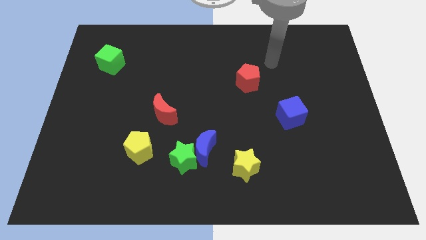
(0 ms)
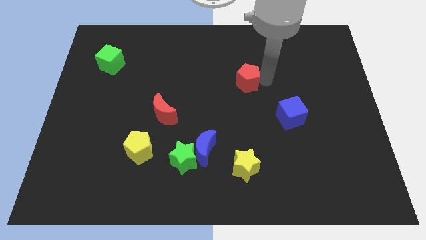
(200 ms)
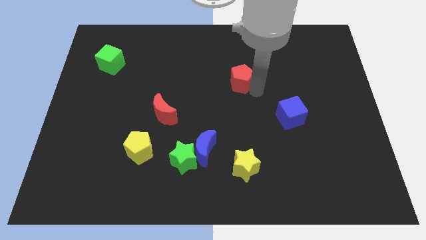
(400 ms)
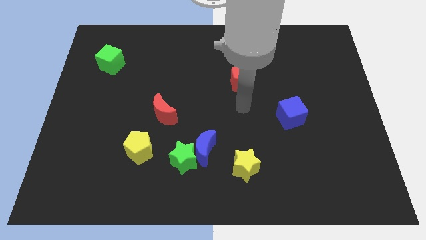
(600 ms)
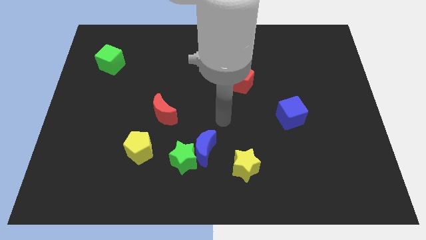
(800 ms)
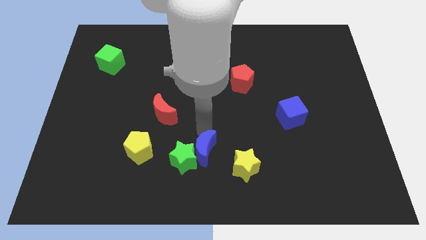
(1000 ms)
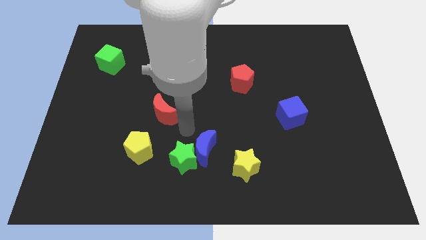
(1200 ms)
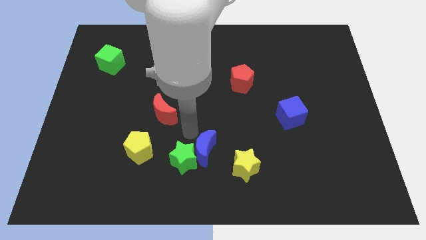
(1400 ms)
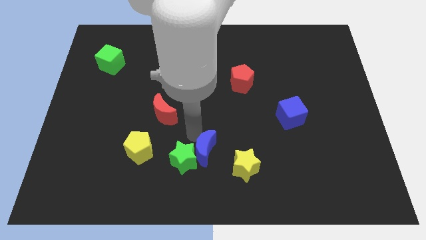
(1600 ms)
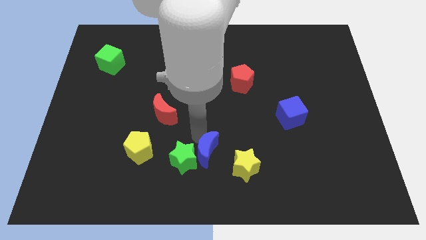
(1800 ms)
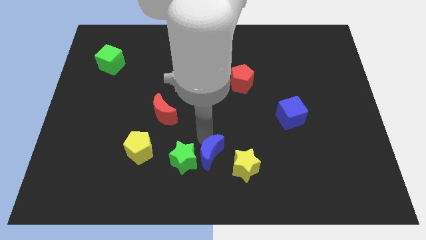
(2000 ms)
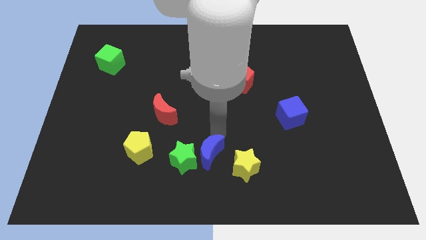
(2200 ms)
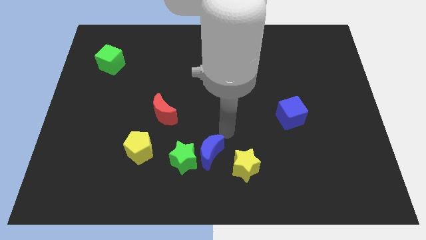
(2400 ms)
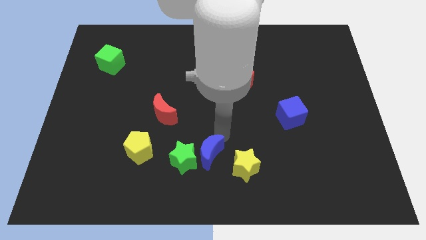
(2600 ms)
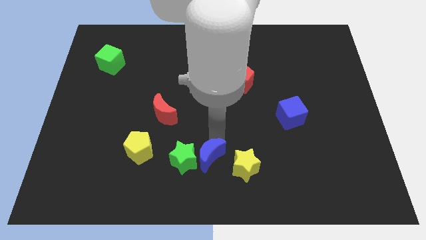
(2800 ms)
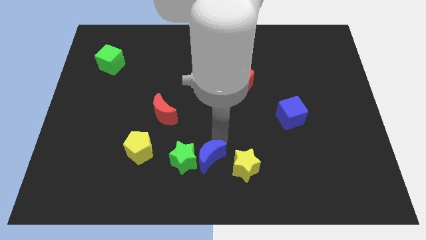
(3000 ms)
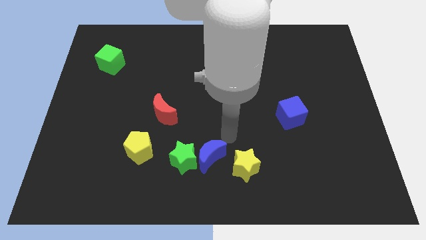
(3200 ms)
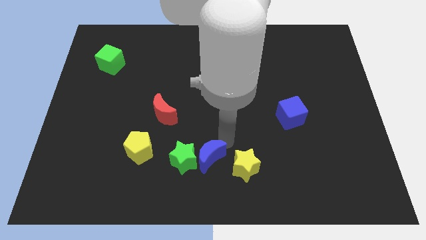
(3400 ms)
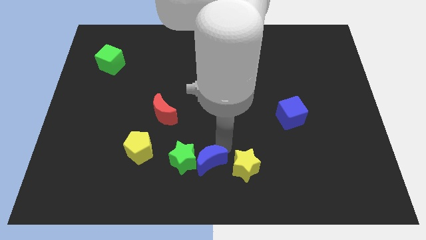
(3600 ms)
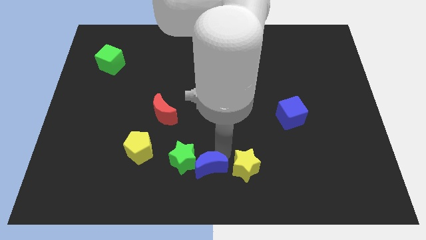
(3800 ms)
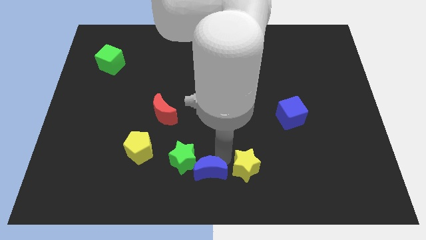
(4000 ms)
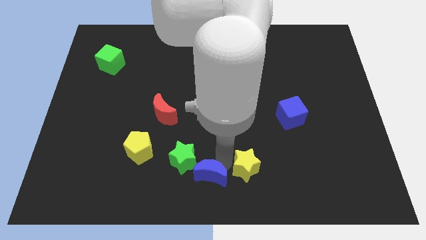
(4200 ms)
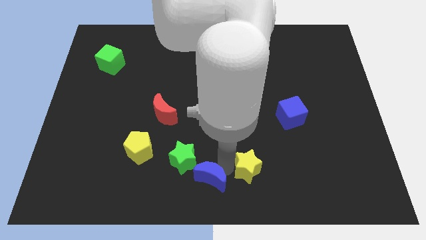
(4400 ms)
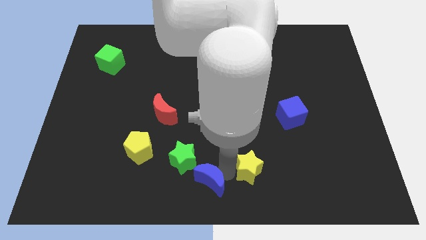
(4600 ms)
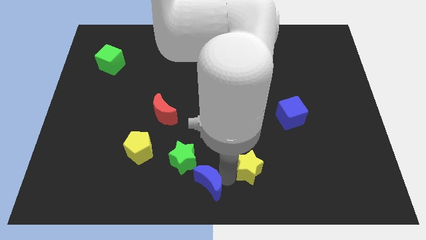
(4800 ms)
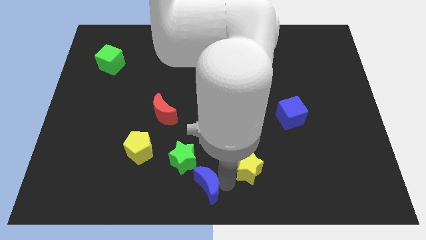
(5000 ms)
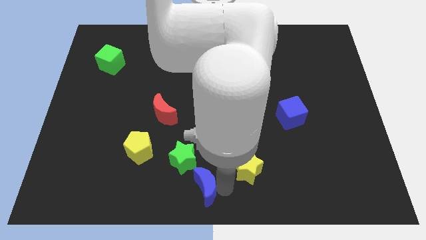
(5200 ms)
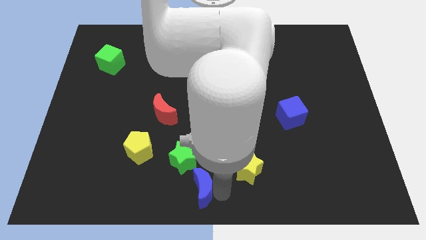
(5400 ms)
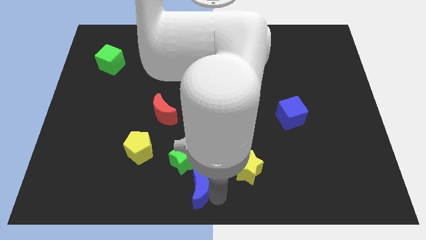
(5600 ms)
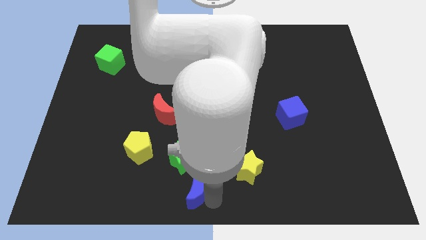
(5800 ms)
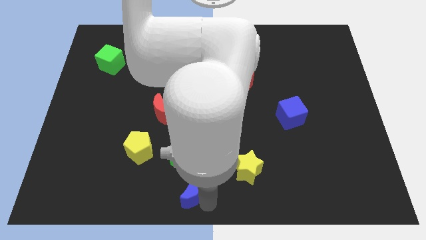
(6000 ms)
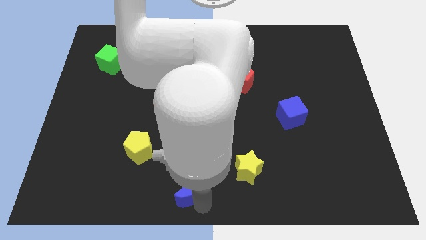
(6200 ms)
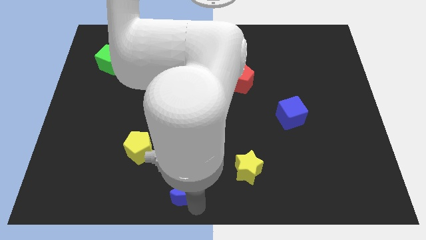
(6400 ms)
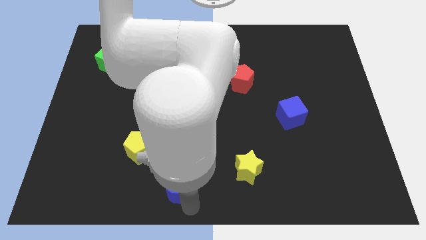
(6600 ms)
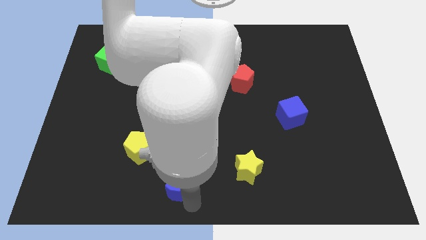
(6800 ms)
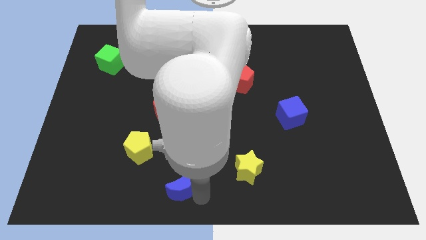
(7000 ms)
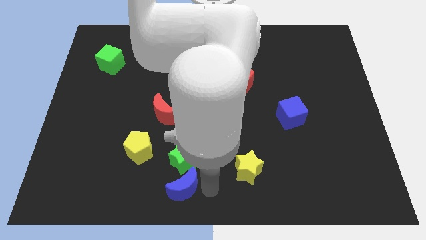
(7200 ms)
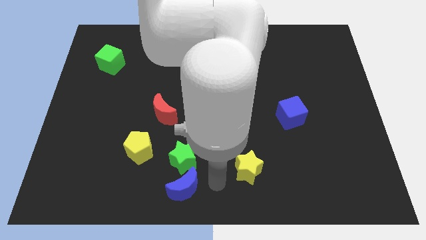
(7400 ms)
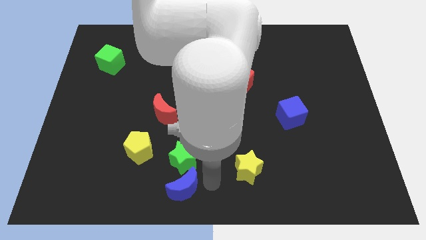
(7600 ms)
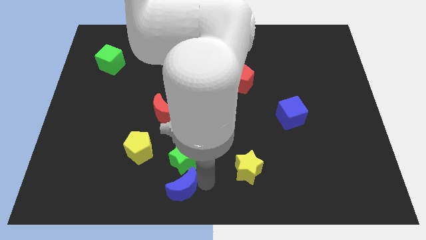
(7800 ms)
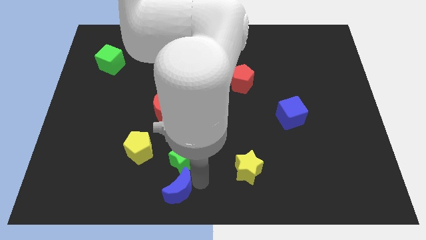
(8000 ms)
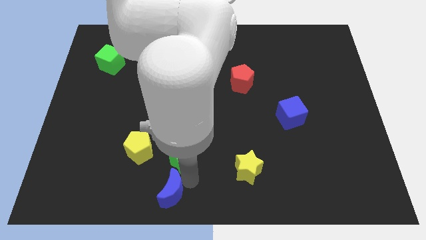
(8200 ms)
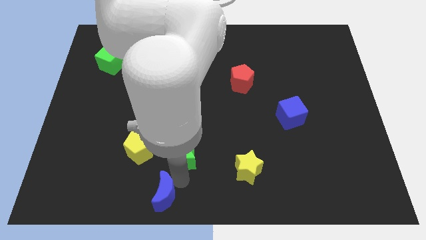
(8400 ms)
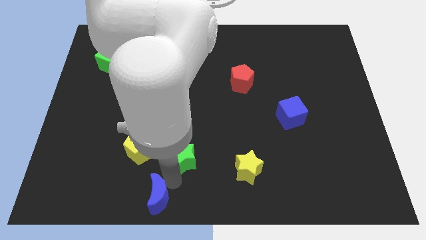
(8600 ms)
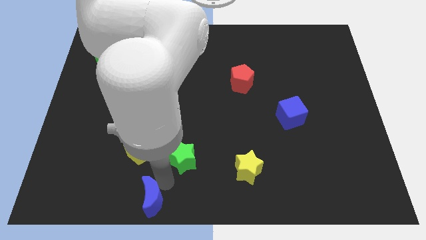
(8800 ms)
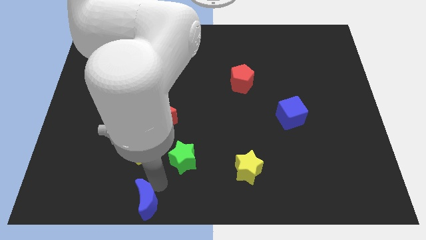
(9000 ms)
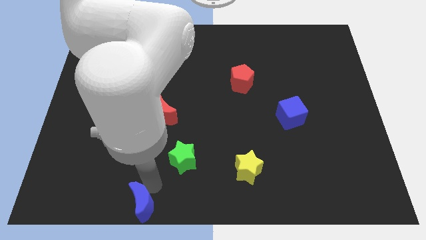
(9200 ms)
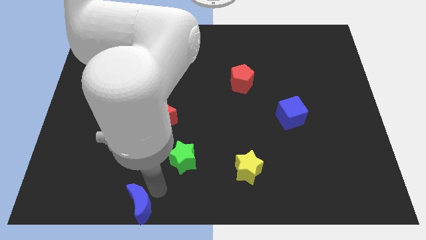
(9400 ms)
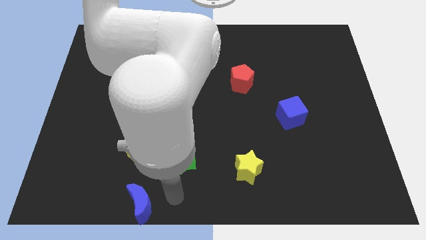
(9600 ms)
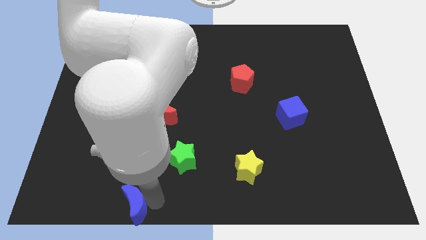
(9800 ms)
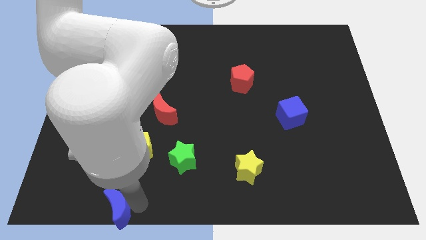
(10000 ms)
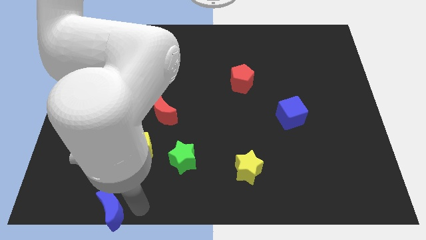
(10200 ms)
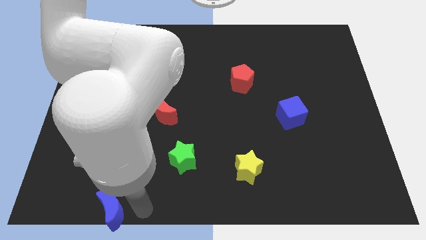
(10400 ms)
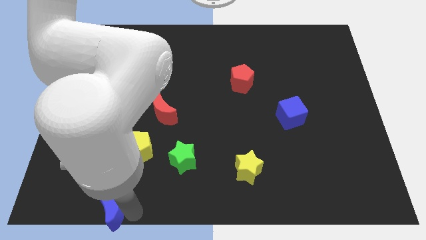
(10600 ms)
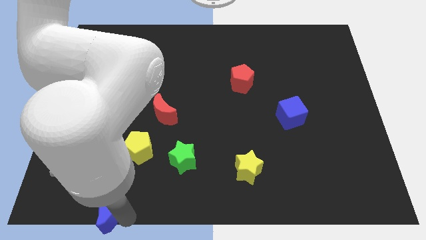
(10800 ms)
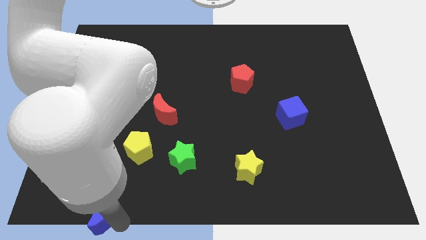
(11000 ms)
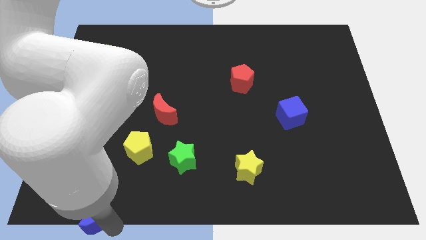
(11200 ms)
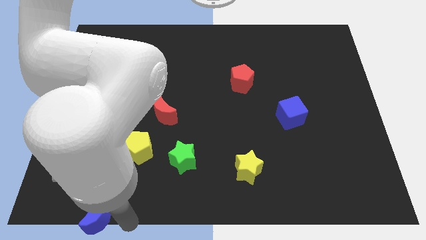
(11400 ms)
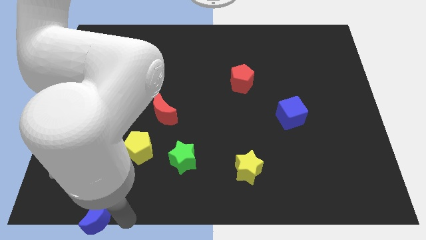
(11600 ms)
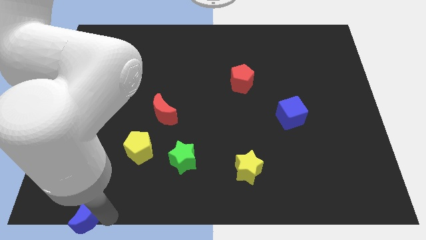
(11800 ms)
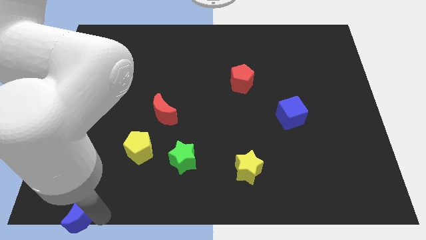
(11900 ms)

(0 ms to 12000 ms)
put the blue moon to the lower left corner

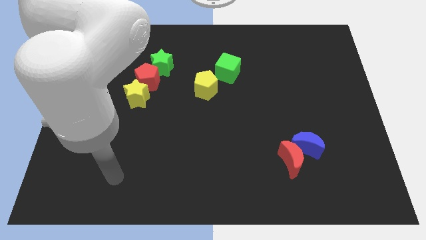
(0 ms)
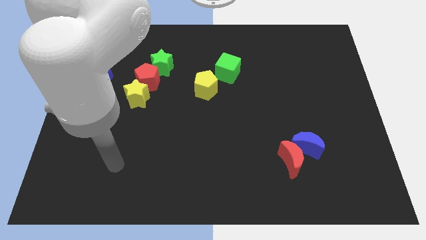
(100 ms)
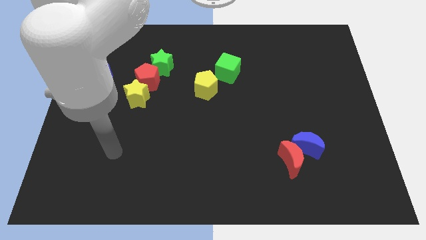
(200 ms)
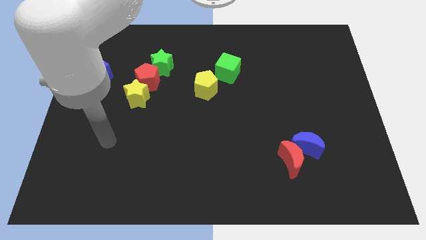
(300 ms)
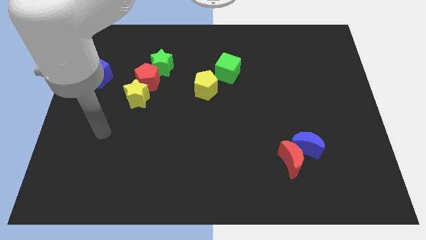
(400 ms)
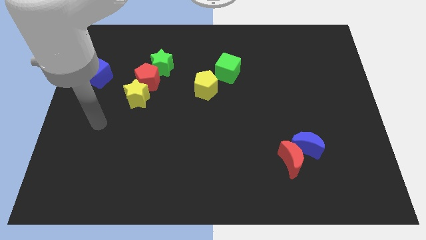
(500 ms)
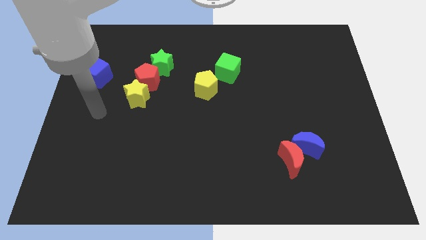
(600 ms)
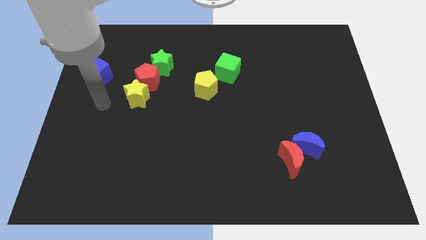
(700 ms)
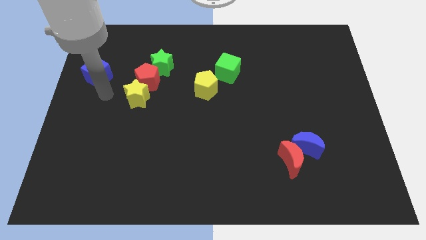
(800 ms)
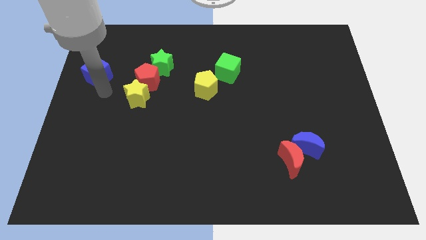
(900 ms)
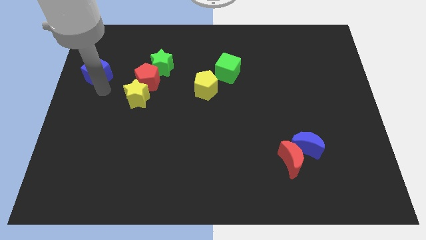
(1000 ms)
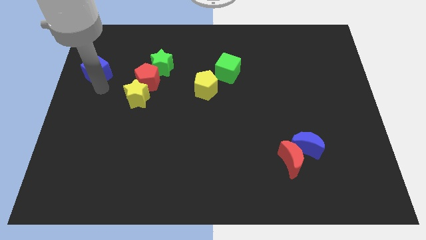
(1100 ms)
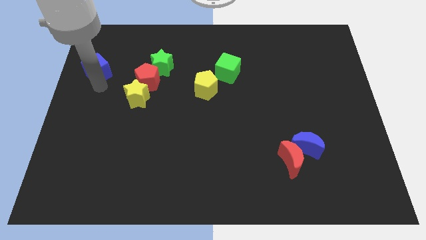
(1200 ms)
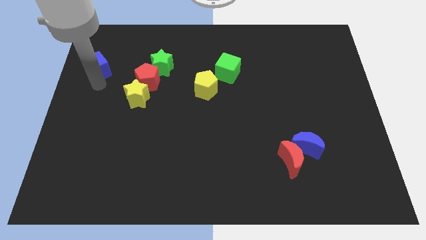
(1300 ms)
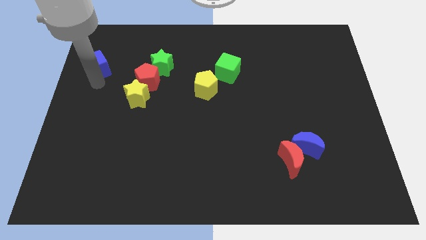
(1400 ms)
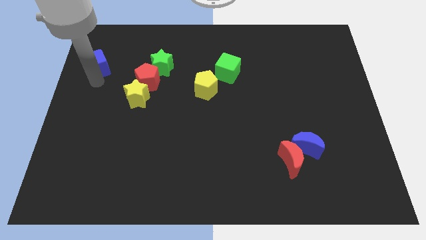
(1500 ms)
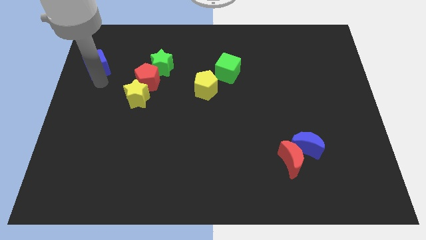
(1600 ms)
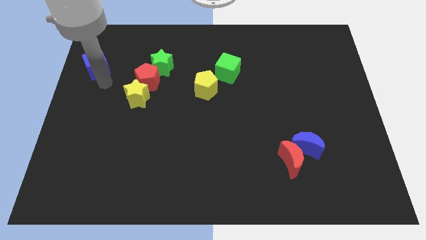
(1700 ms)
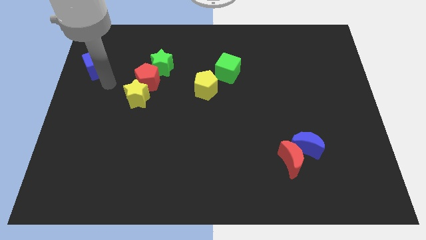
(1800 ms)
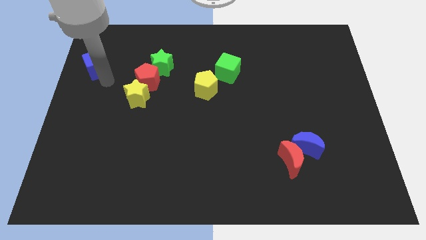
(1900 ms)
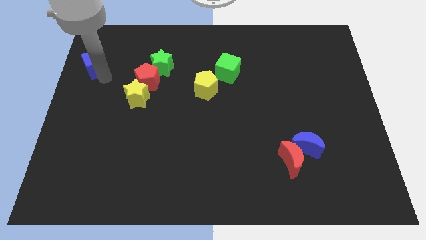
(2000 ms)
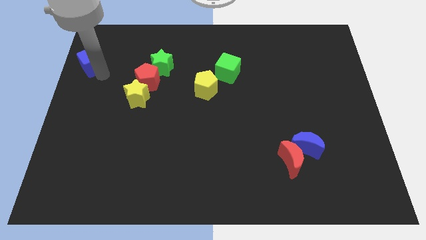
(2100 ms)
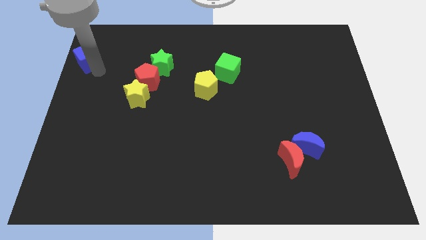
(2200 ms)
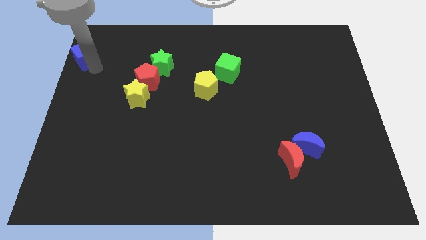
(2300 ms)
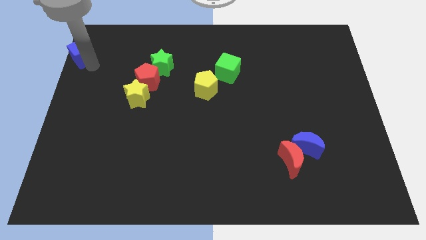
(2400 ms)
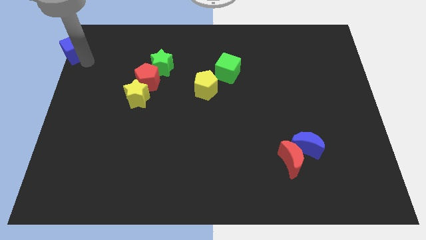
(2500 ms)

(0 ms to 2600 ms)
slide the blue cube to the upper left corner
